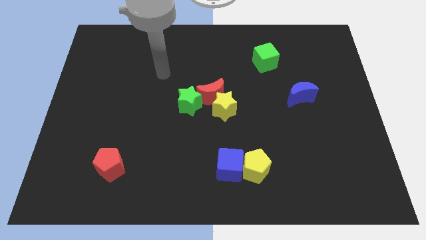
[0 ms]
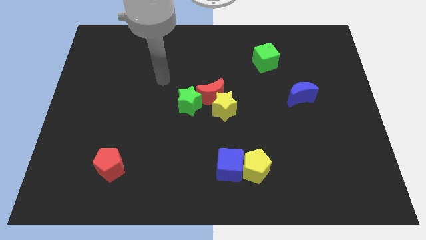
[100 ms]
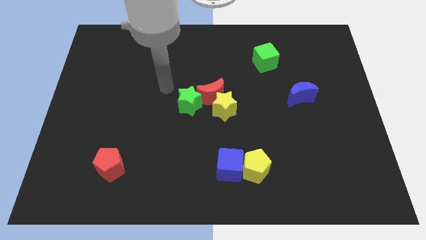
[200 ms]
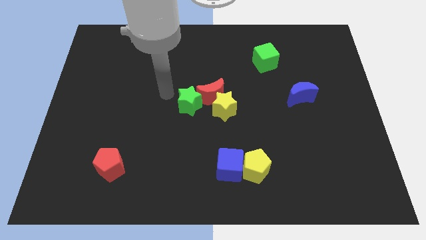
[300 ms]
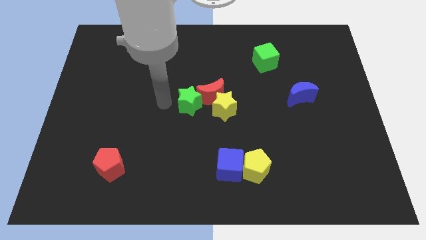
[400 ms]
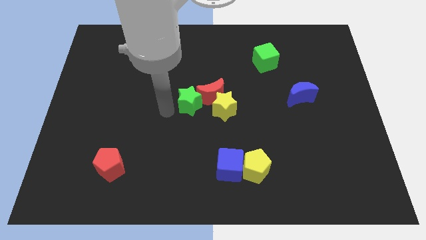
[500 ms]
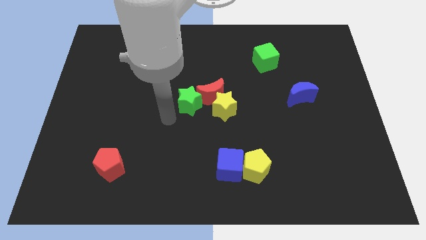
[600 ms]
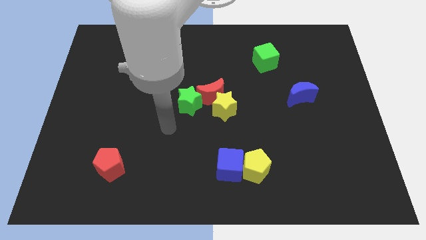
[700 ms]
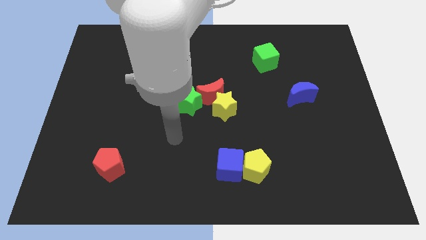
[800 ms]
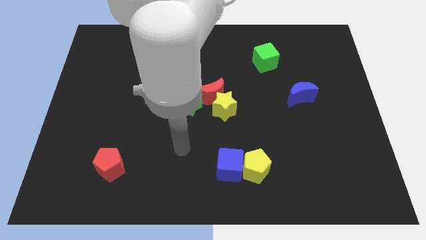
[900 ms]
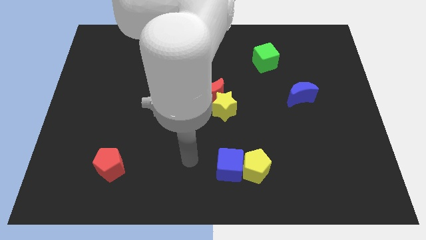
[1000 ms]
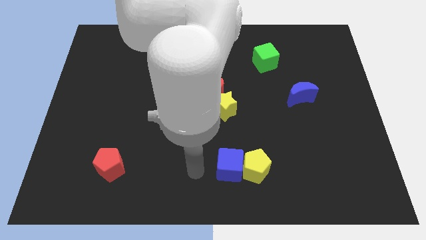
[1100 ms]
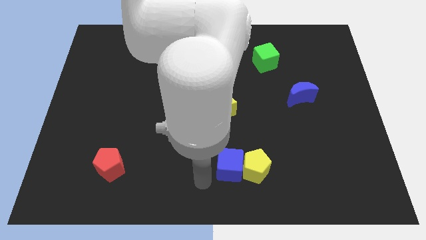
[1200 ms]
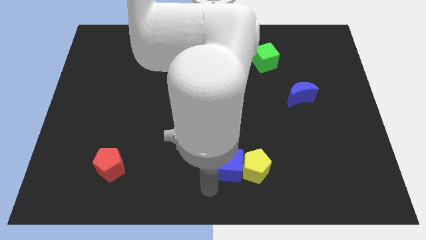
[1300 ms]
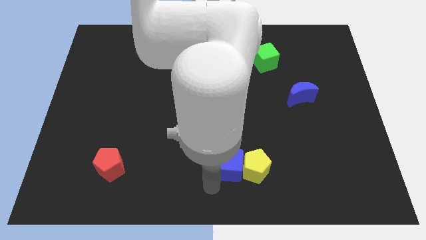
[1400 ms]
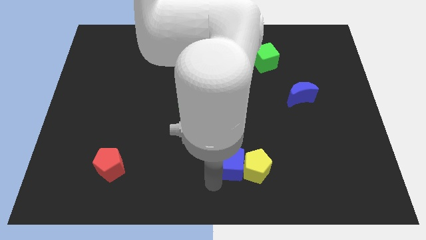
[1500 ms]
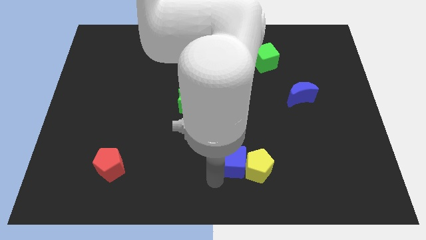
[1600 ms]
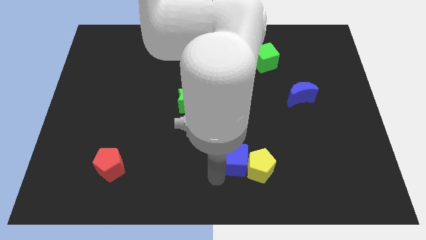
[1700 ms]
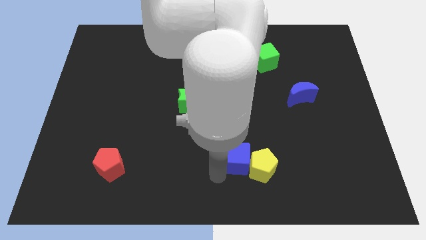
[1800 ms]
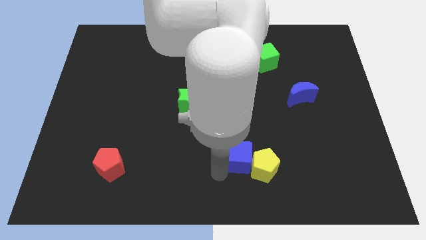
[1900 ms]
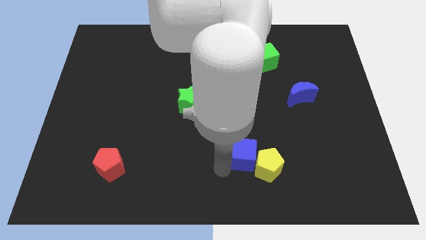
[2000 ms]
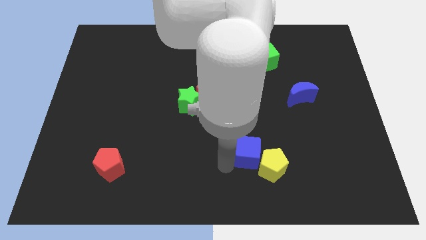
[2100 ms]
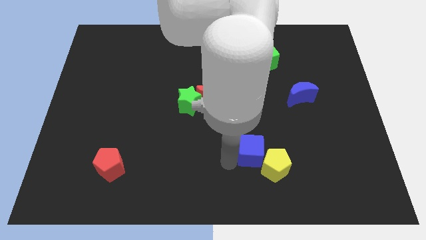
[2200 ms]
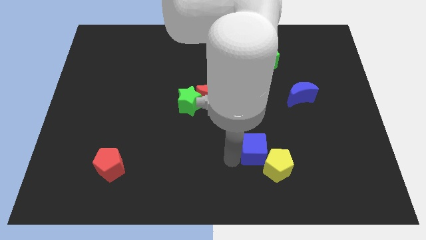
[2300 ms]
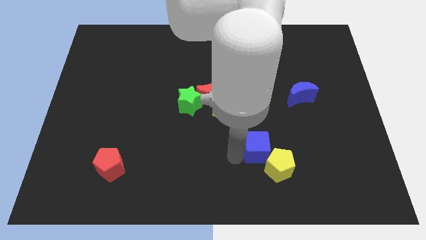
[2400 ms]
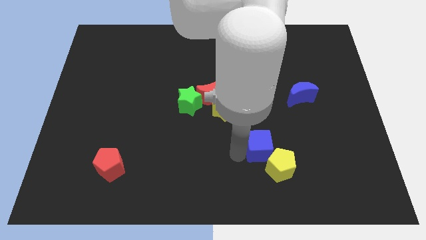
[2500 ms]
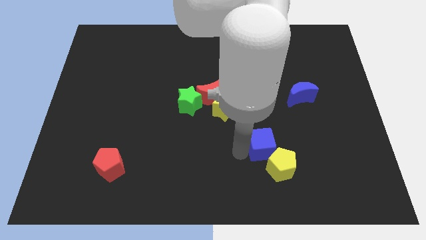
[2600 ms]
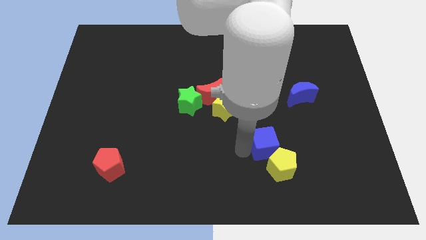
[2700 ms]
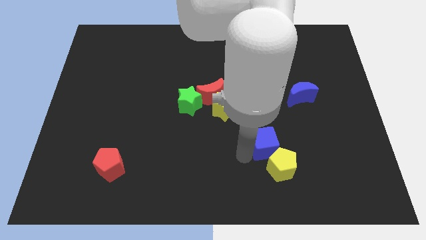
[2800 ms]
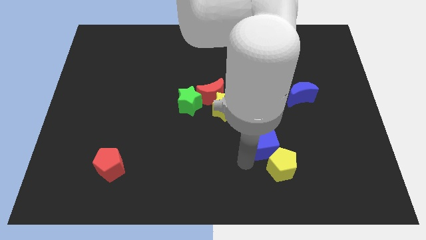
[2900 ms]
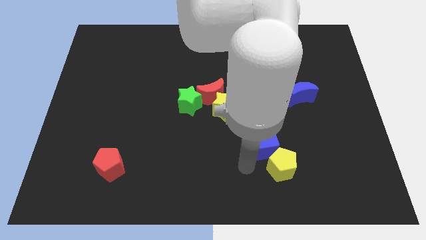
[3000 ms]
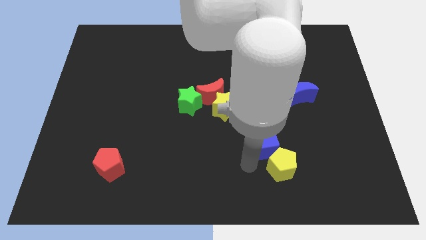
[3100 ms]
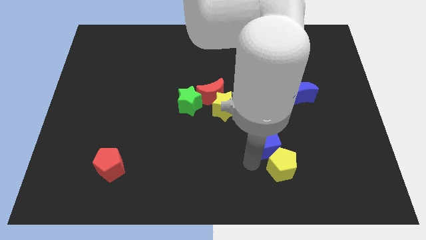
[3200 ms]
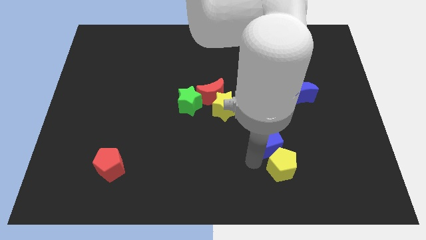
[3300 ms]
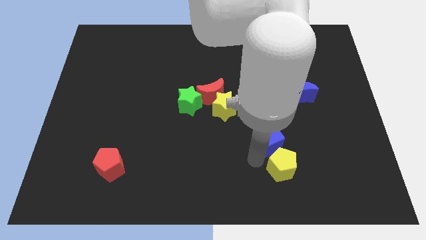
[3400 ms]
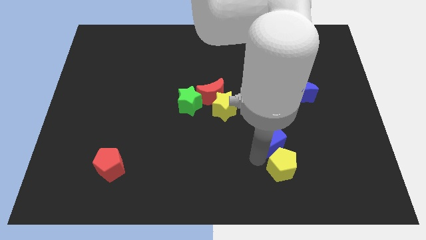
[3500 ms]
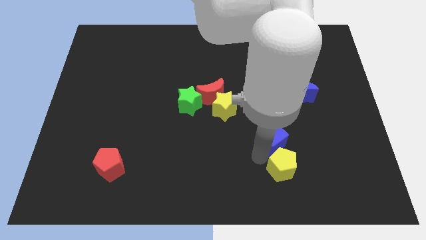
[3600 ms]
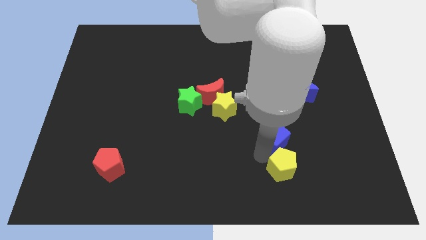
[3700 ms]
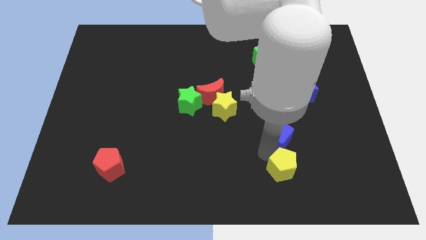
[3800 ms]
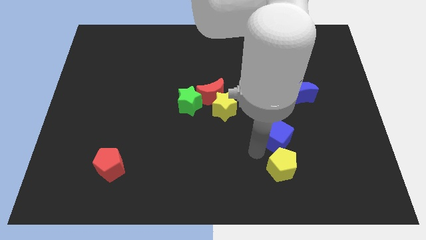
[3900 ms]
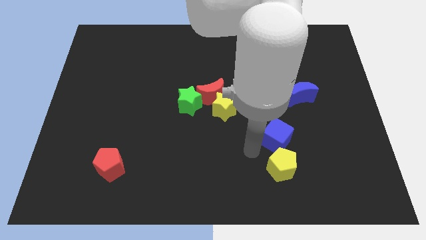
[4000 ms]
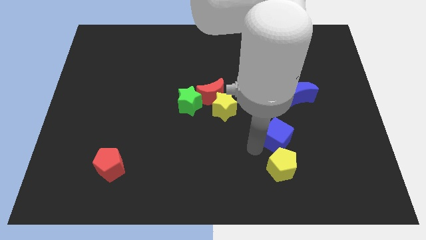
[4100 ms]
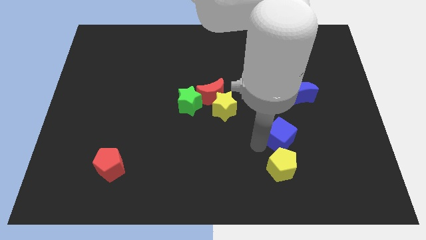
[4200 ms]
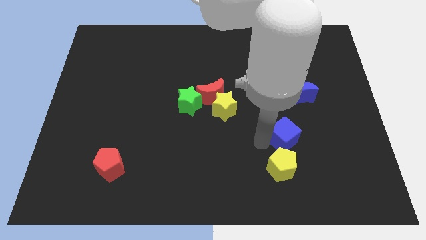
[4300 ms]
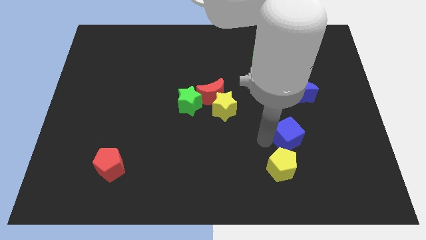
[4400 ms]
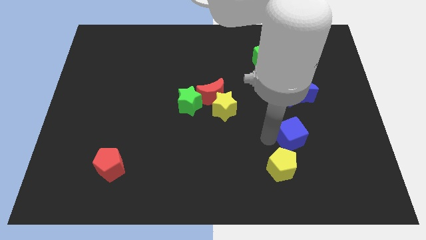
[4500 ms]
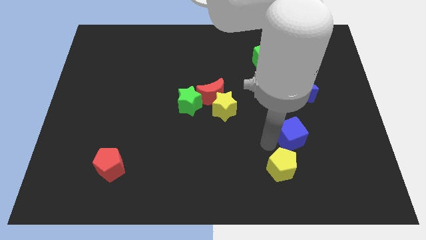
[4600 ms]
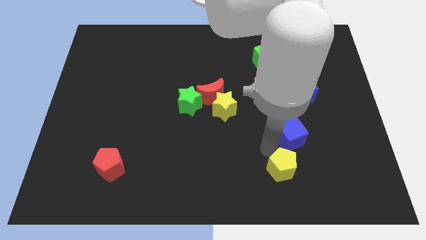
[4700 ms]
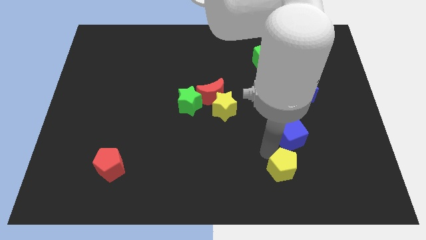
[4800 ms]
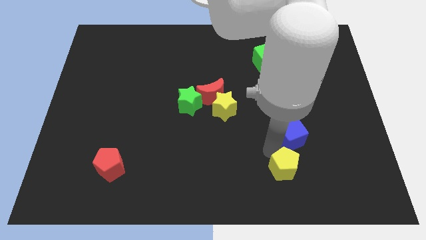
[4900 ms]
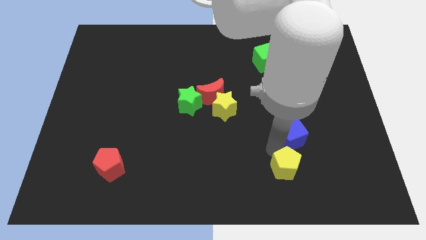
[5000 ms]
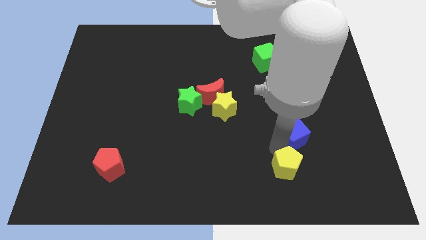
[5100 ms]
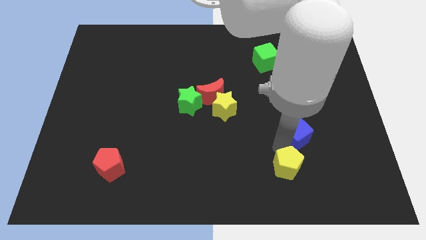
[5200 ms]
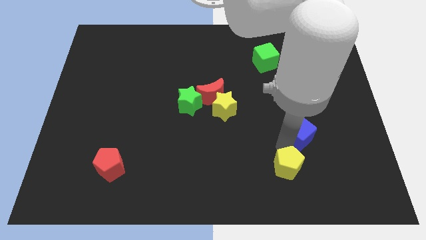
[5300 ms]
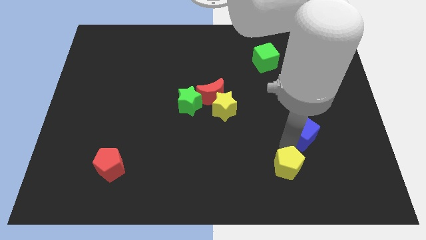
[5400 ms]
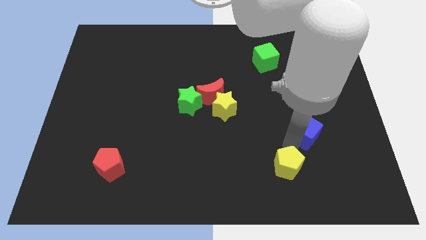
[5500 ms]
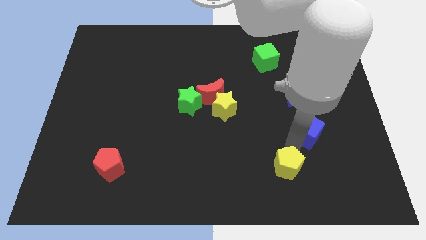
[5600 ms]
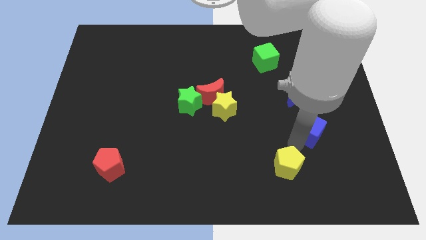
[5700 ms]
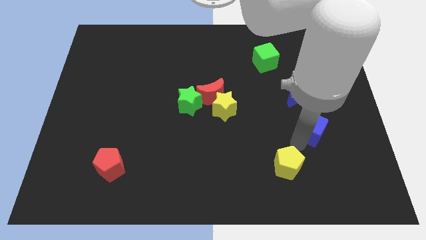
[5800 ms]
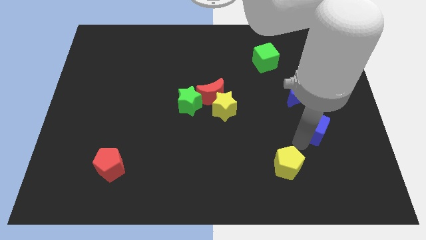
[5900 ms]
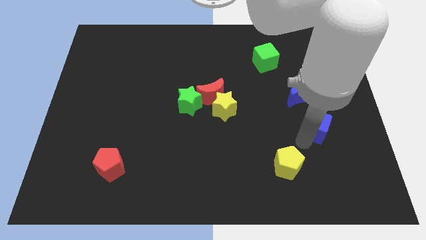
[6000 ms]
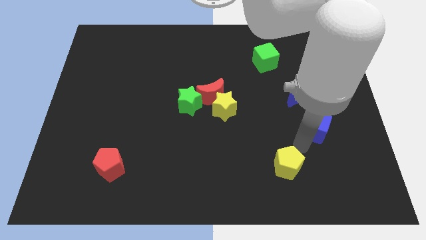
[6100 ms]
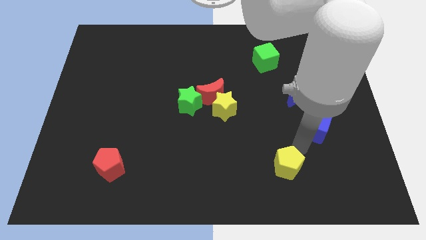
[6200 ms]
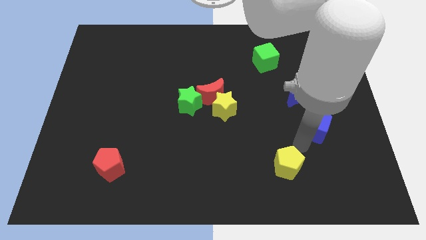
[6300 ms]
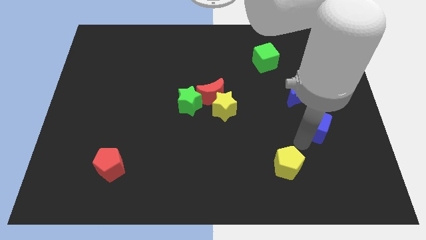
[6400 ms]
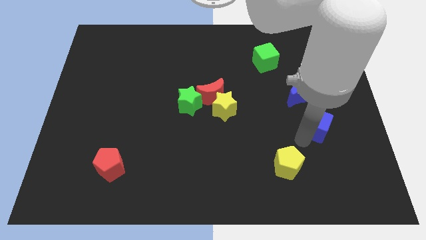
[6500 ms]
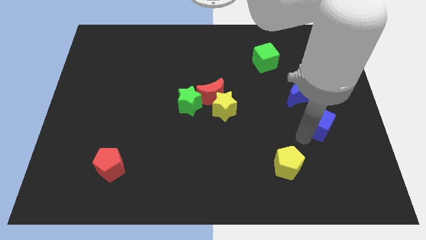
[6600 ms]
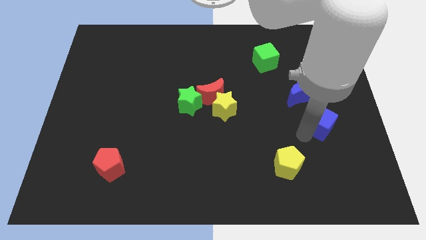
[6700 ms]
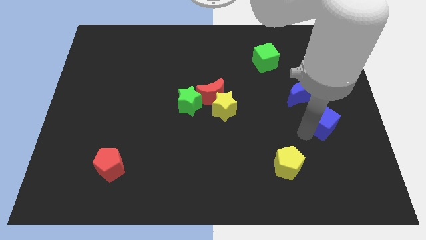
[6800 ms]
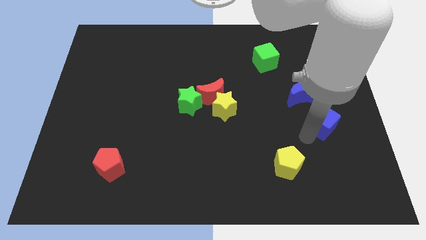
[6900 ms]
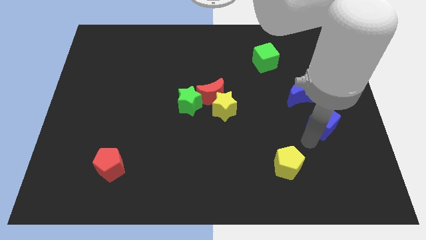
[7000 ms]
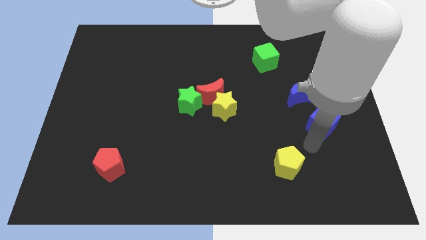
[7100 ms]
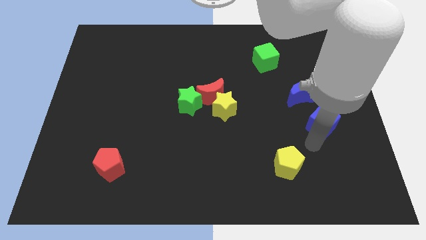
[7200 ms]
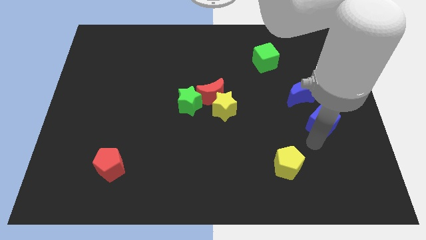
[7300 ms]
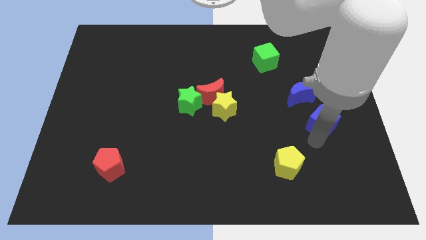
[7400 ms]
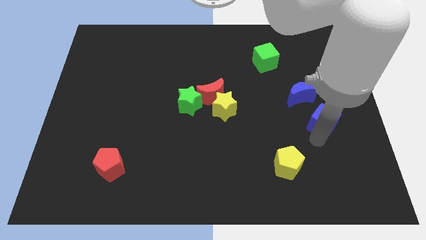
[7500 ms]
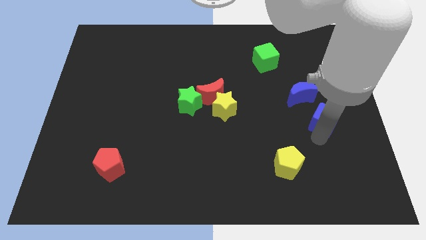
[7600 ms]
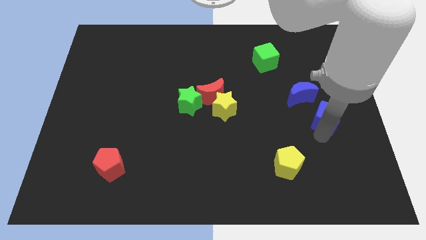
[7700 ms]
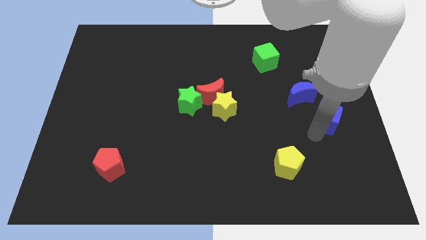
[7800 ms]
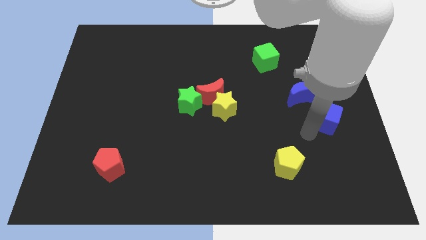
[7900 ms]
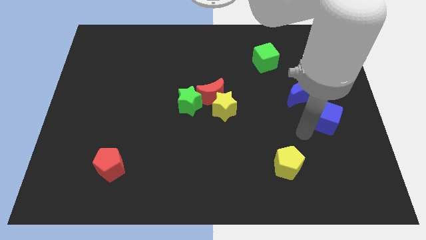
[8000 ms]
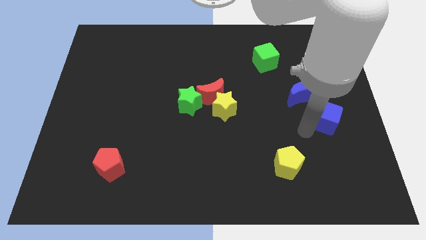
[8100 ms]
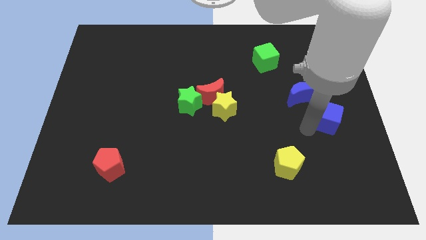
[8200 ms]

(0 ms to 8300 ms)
slide the blue cube to the right side of the board
